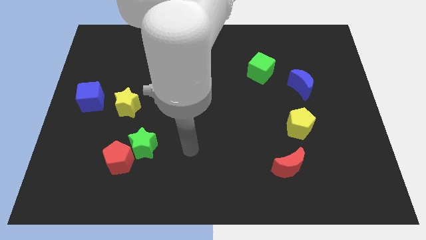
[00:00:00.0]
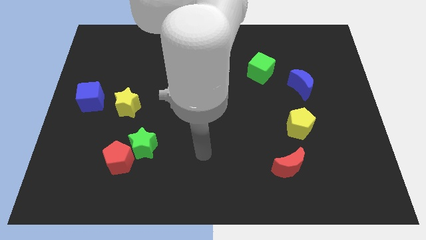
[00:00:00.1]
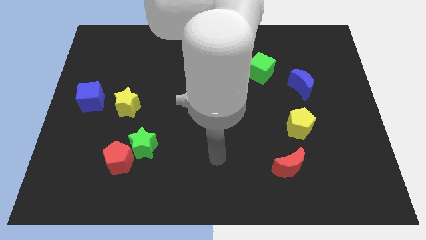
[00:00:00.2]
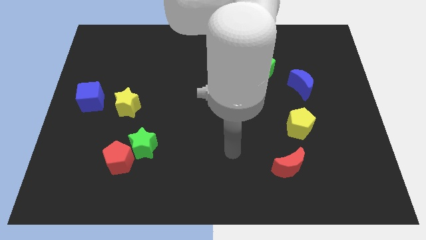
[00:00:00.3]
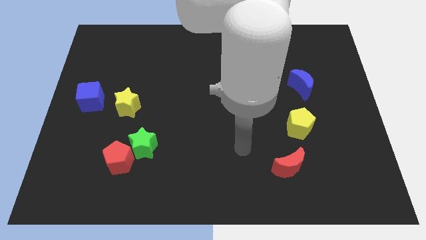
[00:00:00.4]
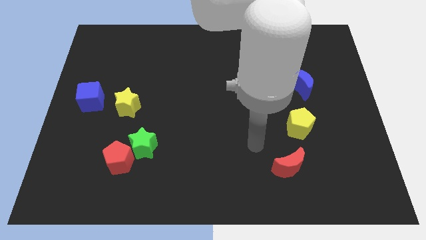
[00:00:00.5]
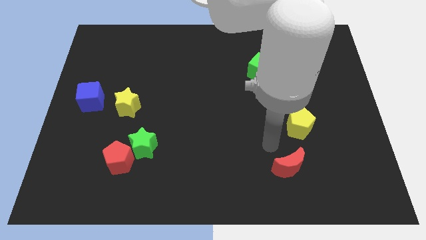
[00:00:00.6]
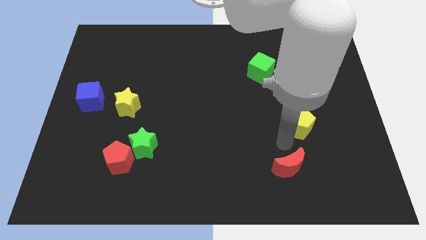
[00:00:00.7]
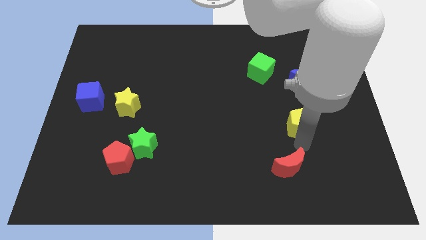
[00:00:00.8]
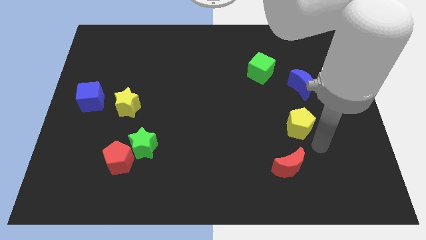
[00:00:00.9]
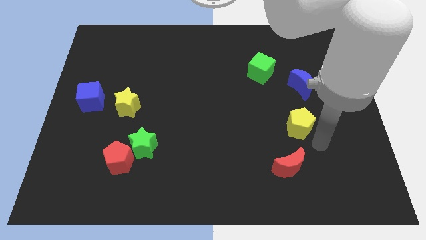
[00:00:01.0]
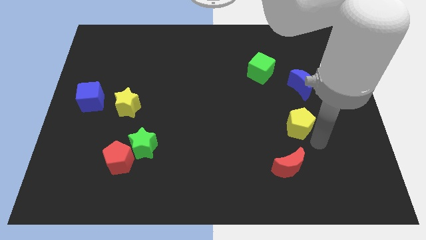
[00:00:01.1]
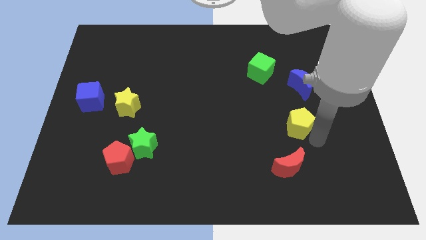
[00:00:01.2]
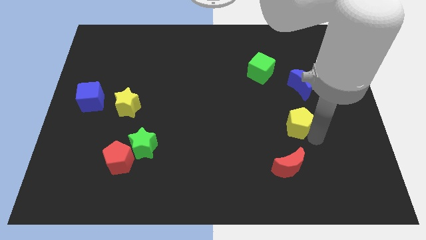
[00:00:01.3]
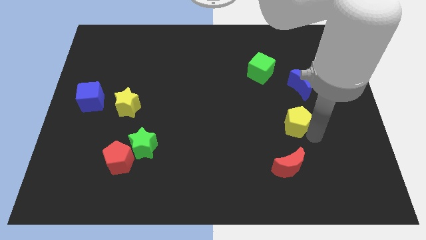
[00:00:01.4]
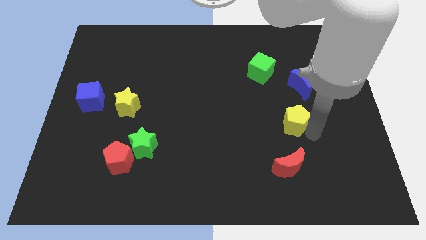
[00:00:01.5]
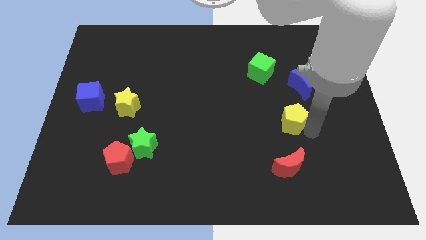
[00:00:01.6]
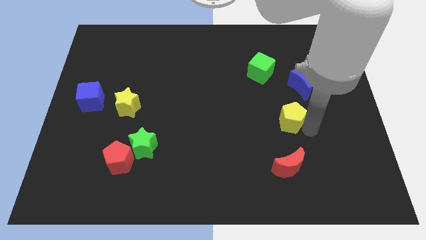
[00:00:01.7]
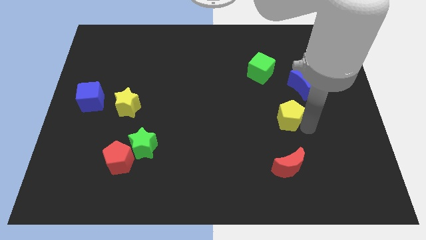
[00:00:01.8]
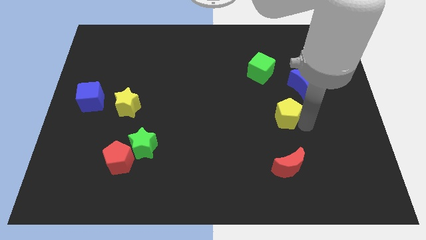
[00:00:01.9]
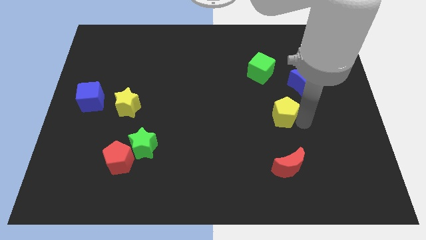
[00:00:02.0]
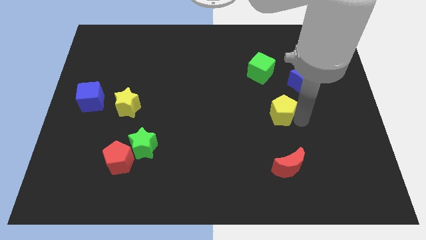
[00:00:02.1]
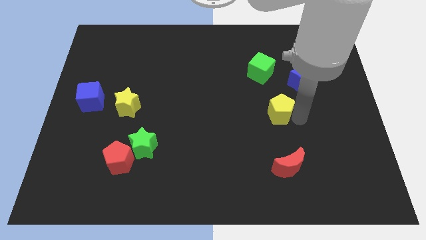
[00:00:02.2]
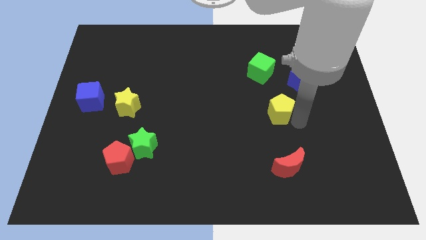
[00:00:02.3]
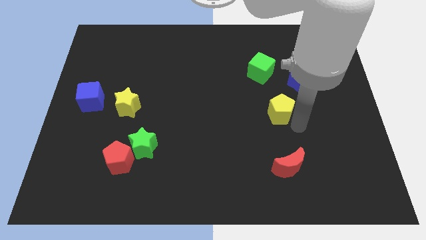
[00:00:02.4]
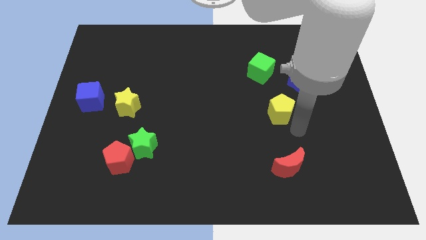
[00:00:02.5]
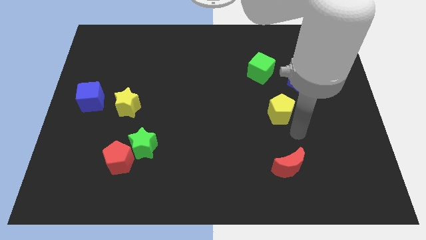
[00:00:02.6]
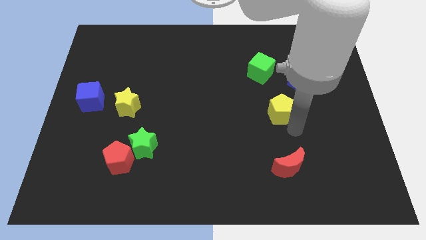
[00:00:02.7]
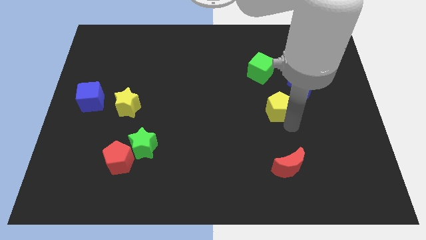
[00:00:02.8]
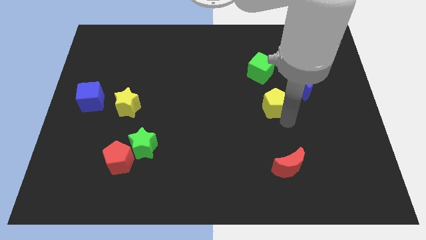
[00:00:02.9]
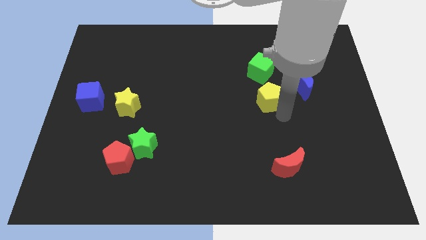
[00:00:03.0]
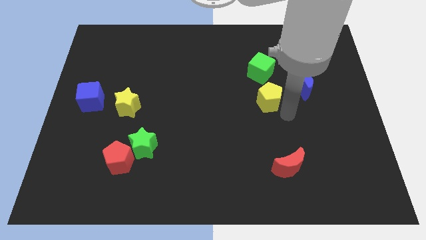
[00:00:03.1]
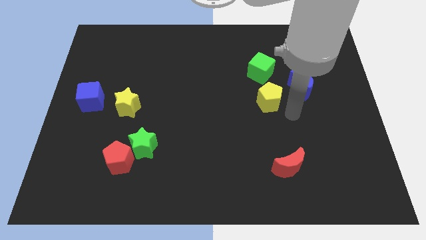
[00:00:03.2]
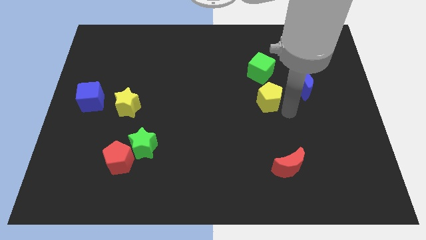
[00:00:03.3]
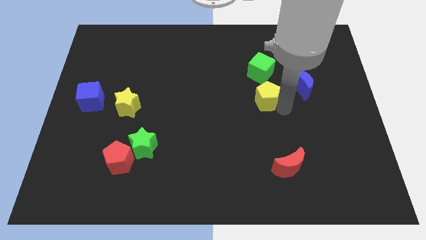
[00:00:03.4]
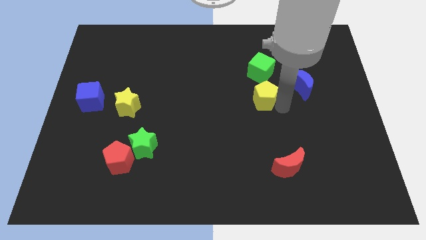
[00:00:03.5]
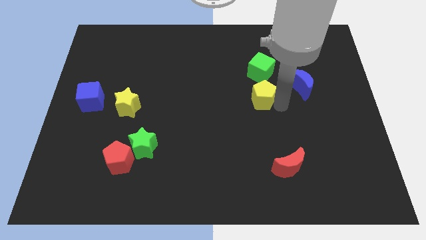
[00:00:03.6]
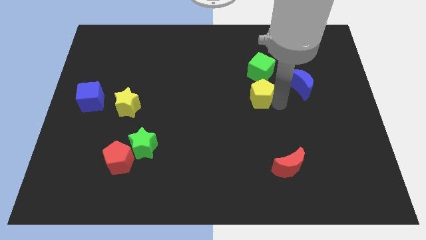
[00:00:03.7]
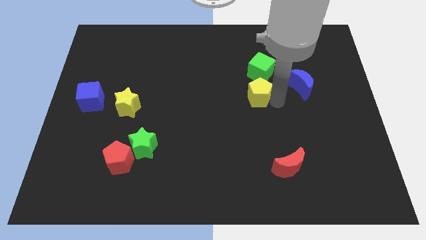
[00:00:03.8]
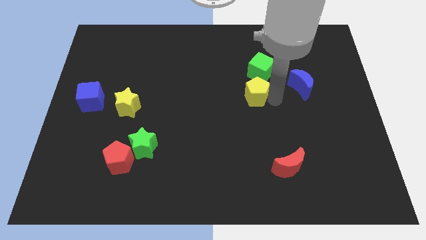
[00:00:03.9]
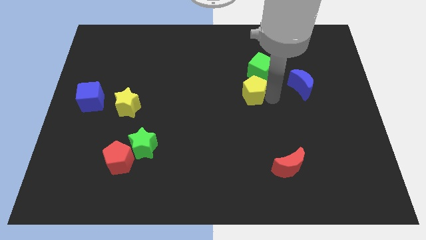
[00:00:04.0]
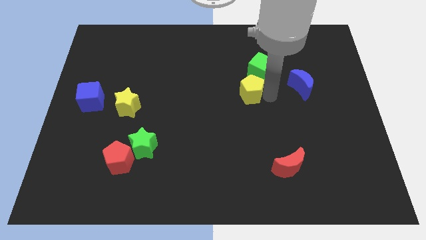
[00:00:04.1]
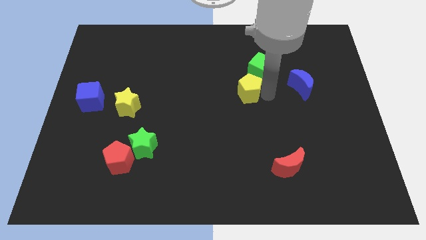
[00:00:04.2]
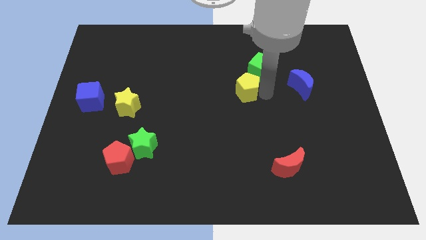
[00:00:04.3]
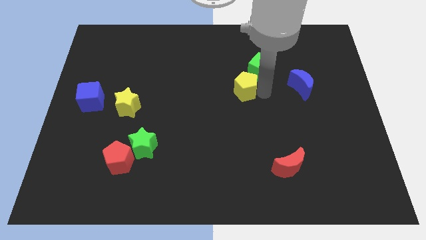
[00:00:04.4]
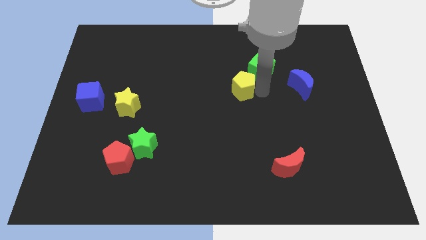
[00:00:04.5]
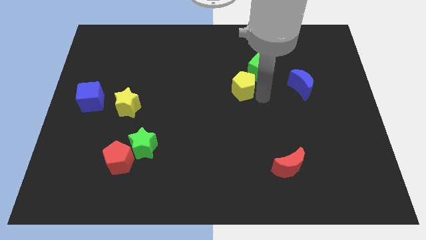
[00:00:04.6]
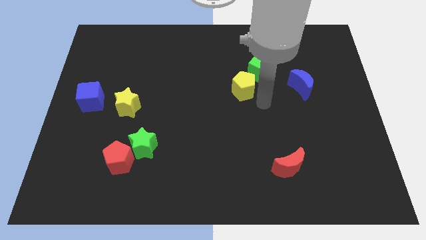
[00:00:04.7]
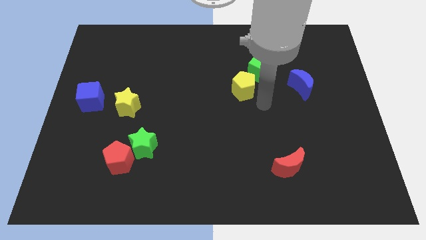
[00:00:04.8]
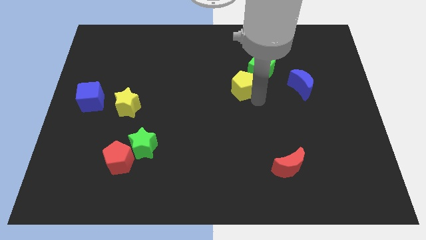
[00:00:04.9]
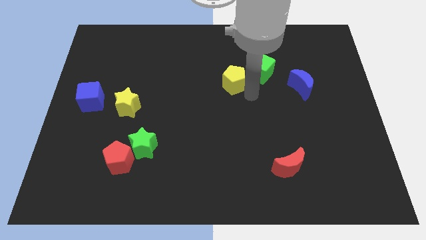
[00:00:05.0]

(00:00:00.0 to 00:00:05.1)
push the yellow pentagon to the left side of the green cube

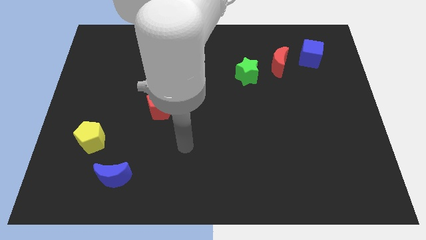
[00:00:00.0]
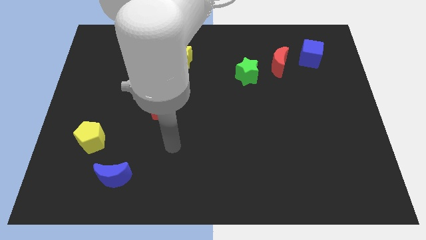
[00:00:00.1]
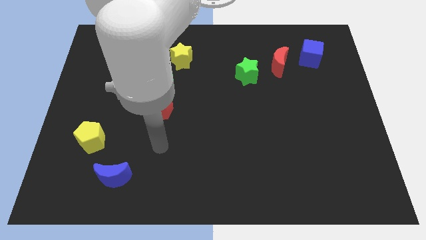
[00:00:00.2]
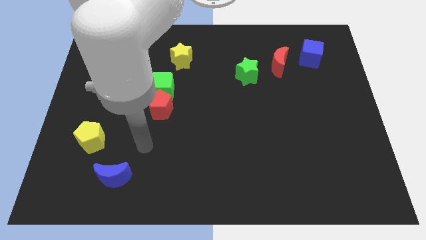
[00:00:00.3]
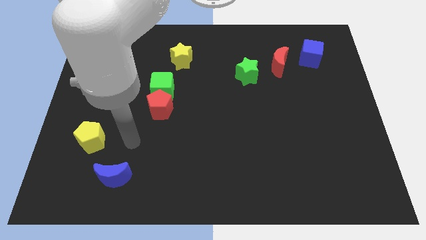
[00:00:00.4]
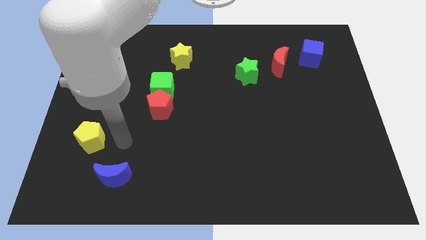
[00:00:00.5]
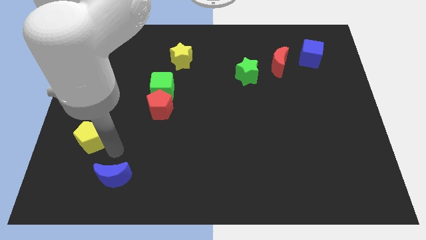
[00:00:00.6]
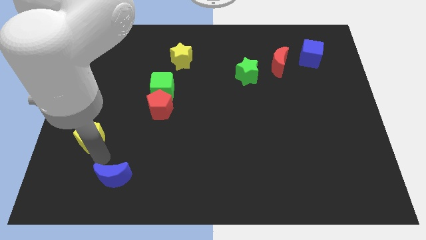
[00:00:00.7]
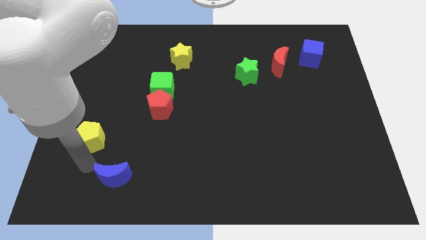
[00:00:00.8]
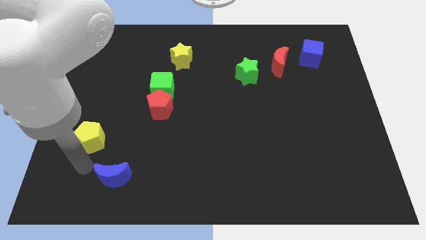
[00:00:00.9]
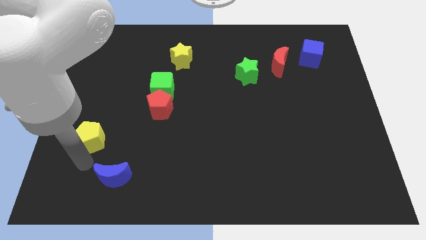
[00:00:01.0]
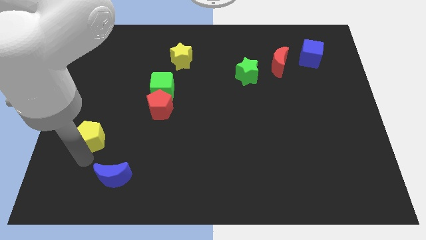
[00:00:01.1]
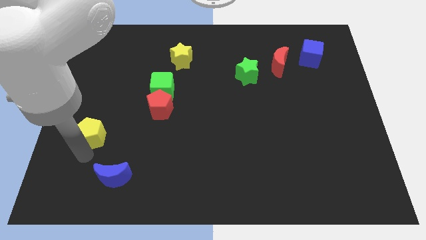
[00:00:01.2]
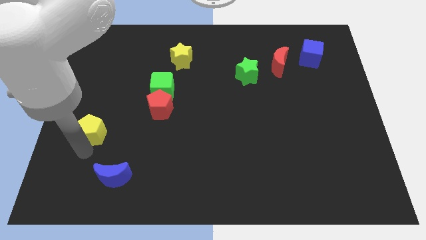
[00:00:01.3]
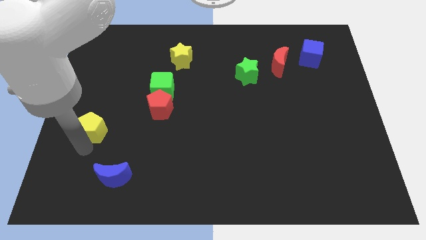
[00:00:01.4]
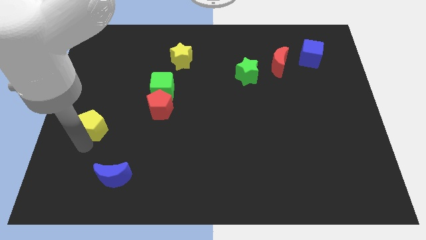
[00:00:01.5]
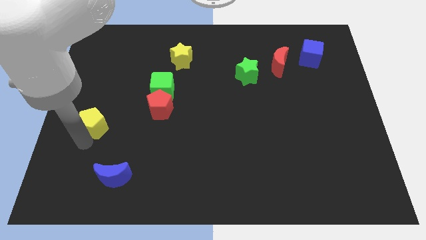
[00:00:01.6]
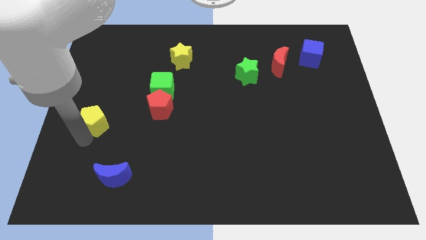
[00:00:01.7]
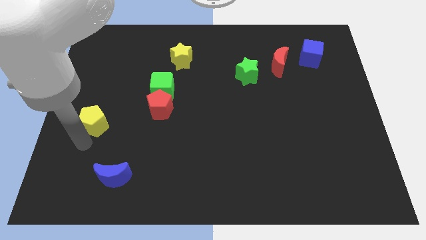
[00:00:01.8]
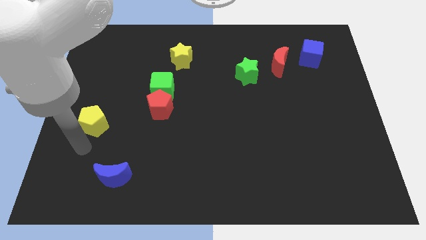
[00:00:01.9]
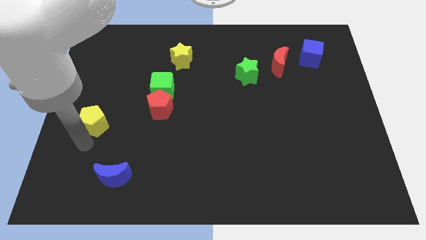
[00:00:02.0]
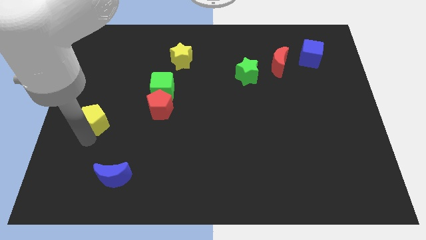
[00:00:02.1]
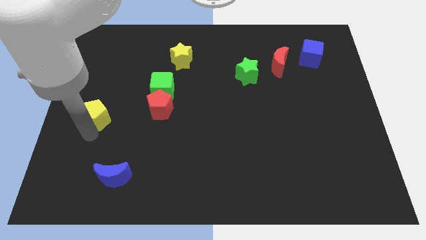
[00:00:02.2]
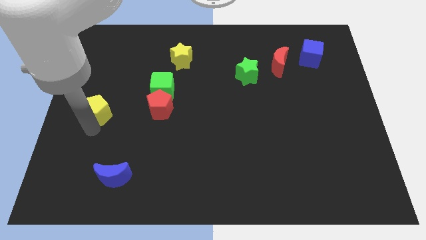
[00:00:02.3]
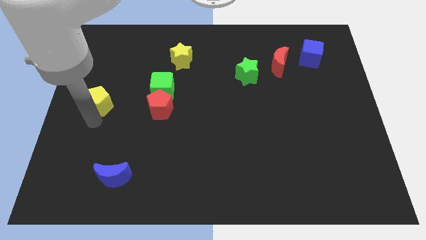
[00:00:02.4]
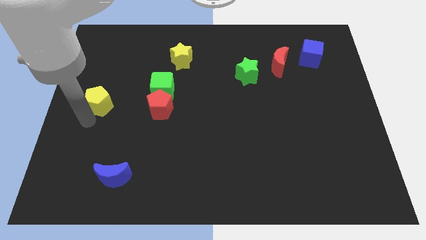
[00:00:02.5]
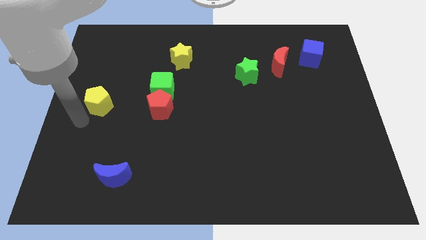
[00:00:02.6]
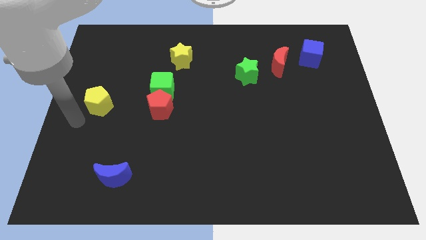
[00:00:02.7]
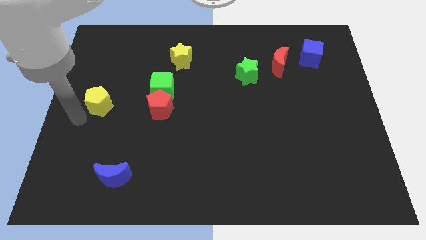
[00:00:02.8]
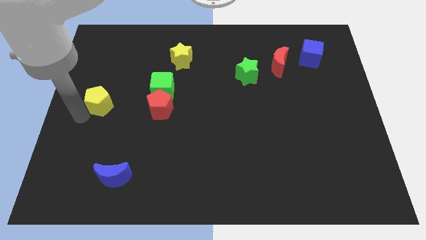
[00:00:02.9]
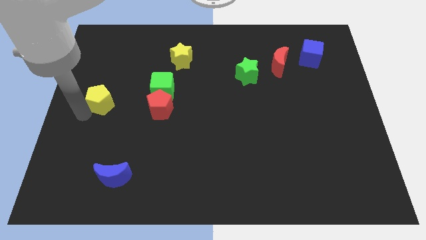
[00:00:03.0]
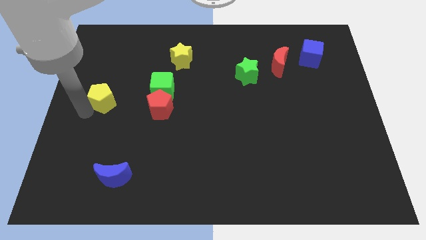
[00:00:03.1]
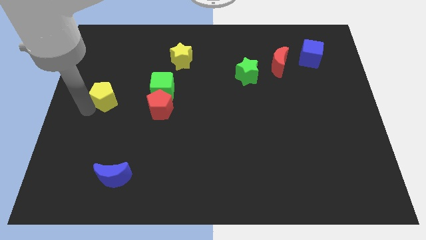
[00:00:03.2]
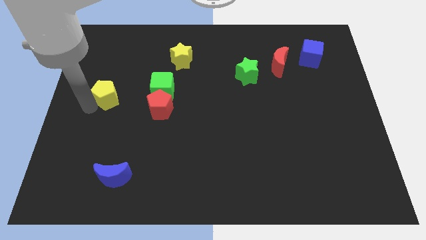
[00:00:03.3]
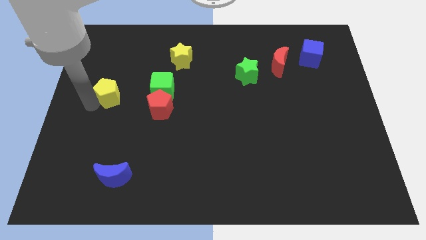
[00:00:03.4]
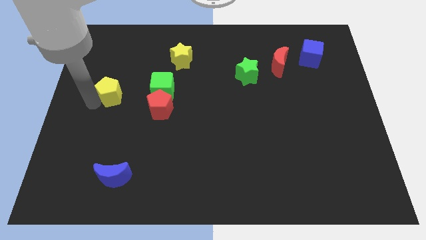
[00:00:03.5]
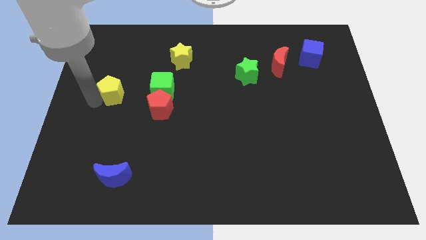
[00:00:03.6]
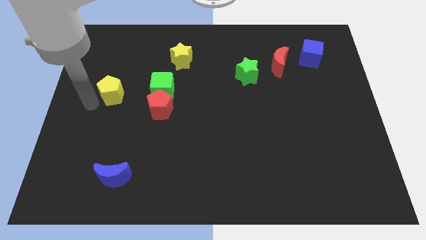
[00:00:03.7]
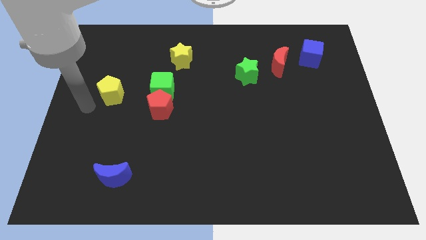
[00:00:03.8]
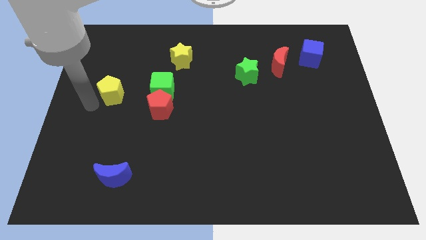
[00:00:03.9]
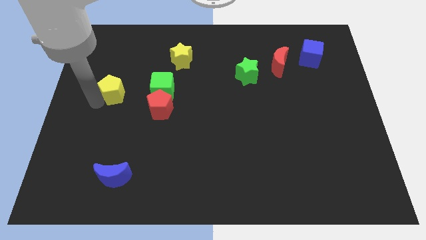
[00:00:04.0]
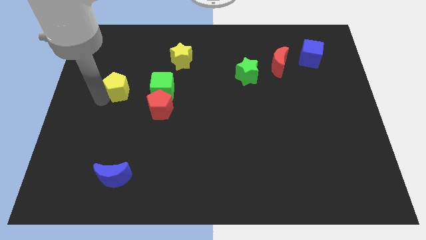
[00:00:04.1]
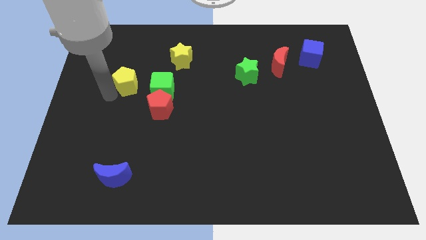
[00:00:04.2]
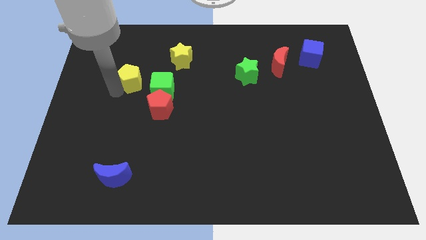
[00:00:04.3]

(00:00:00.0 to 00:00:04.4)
push the yellow pentagon to the top left of the green cube
